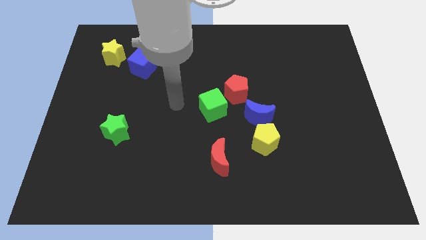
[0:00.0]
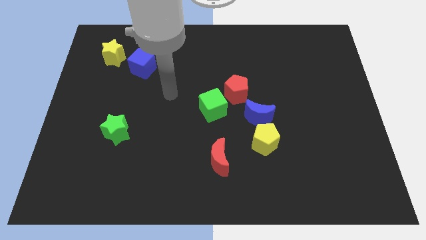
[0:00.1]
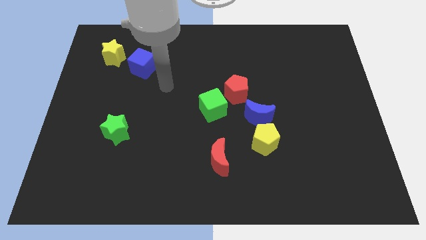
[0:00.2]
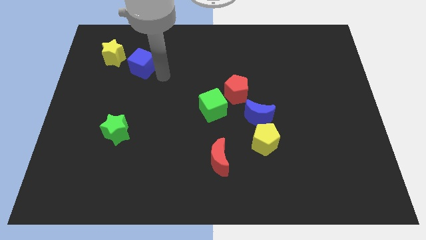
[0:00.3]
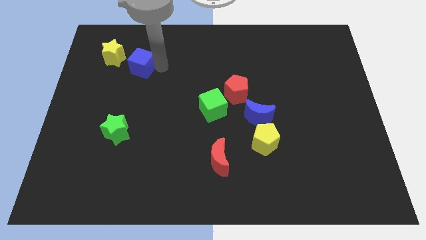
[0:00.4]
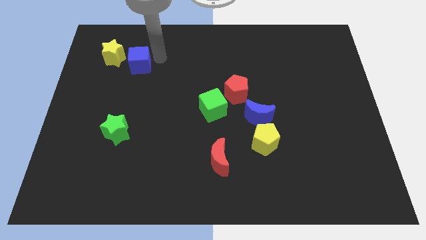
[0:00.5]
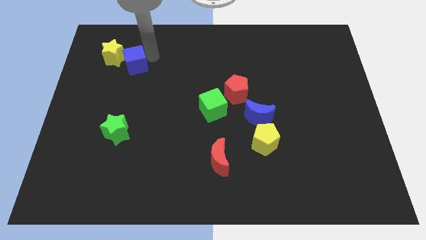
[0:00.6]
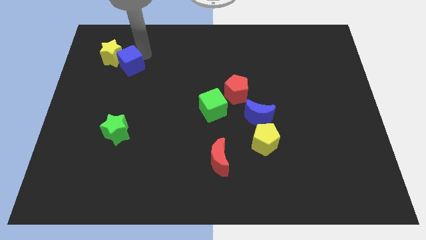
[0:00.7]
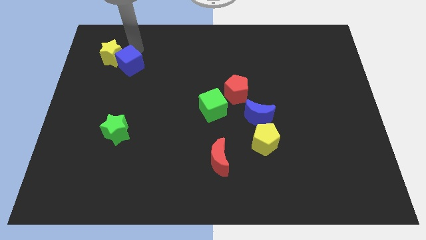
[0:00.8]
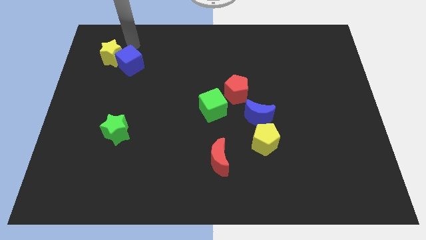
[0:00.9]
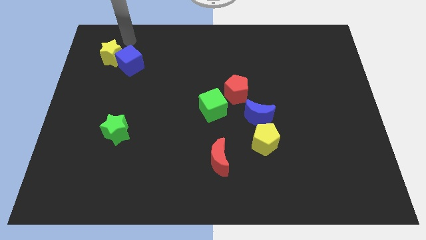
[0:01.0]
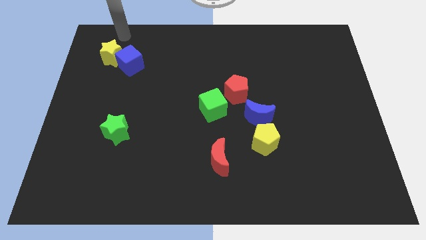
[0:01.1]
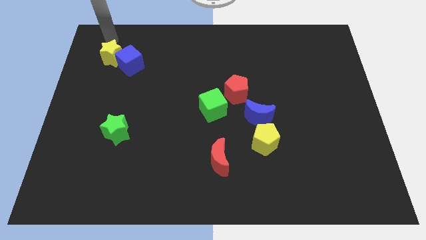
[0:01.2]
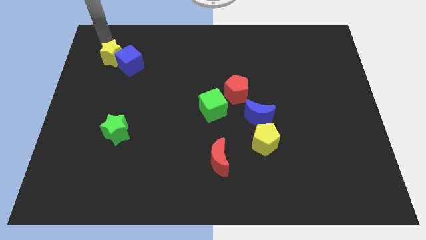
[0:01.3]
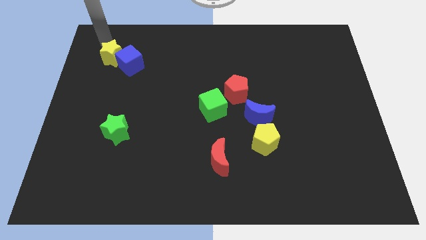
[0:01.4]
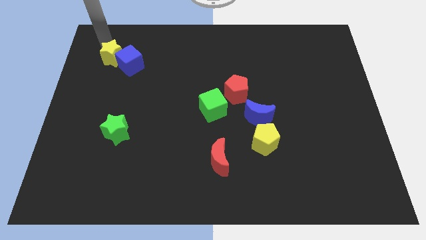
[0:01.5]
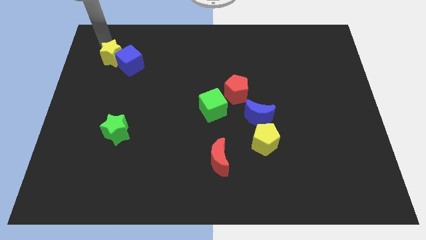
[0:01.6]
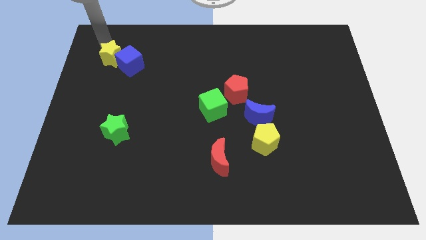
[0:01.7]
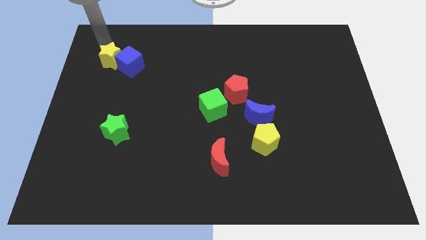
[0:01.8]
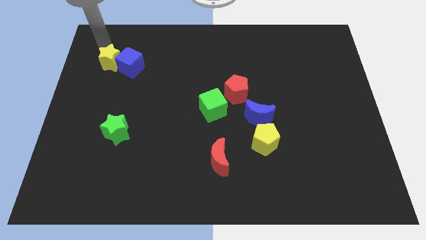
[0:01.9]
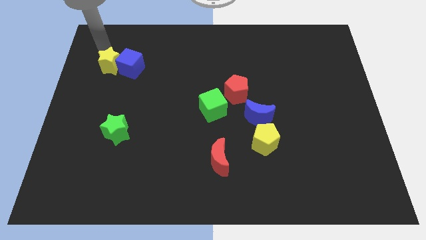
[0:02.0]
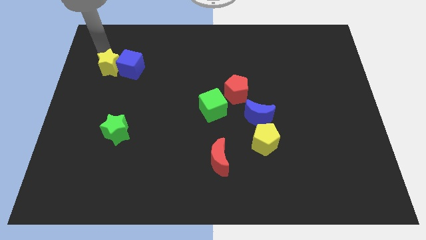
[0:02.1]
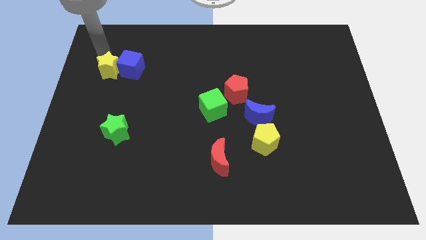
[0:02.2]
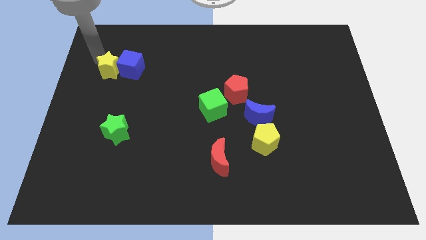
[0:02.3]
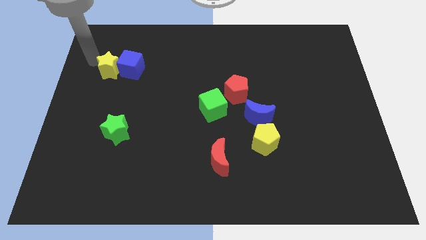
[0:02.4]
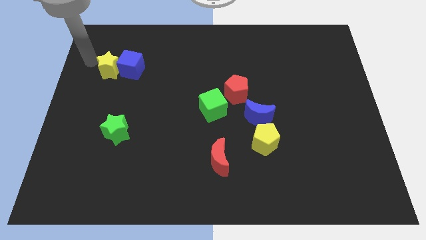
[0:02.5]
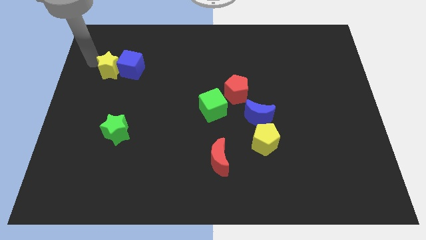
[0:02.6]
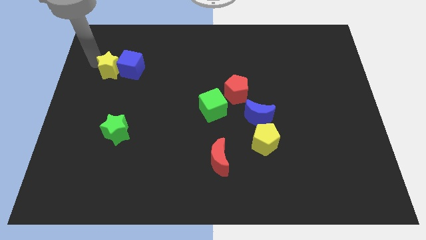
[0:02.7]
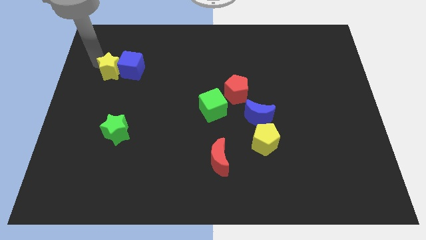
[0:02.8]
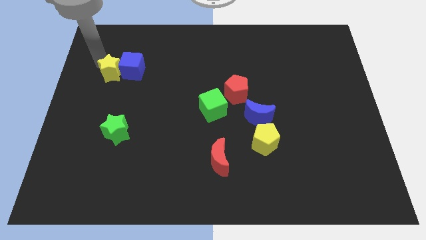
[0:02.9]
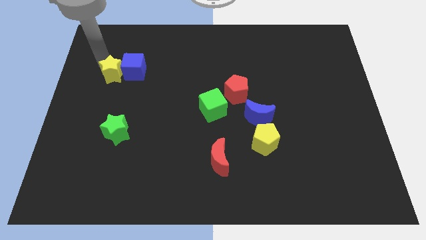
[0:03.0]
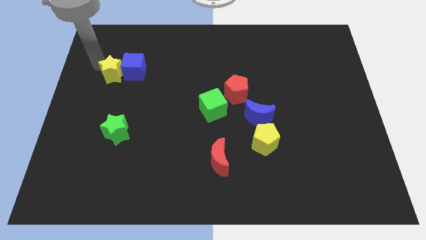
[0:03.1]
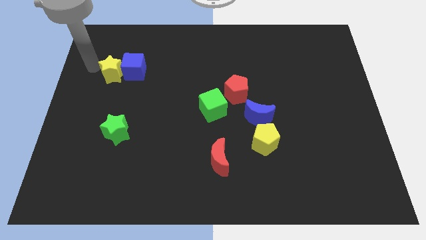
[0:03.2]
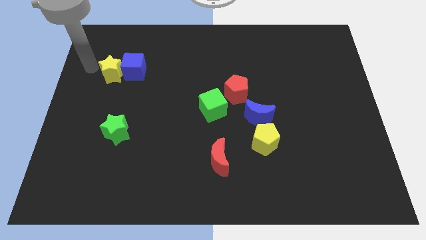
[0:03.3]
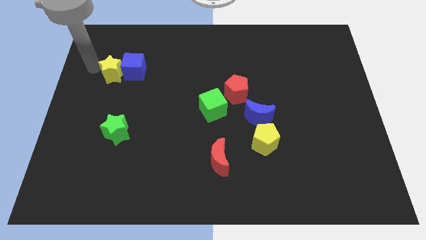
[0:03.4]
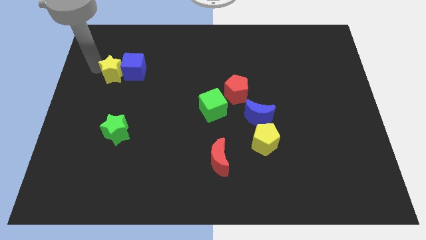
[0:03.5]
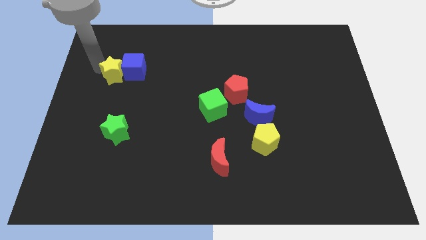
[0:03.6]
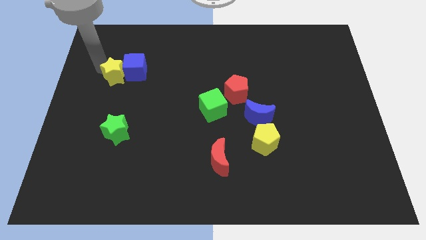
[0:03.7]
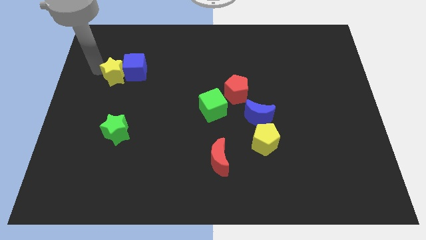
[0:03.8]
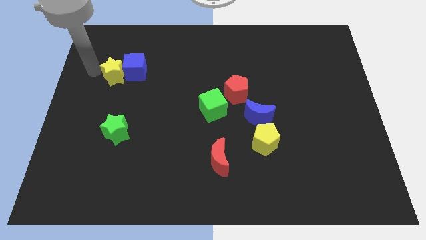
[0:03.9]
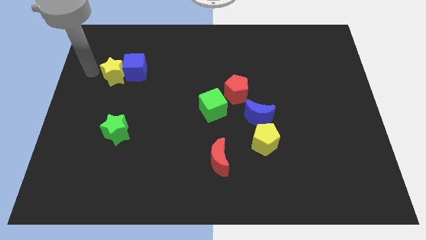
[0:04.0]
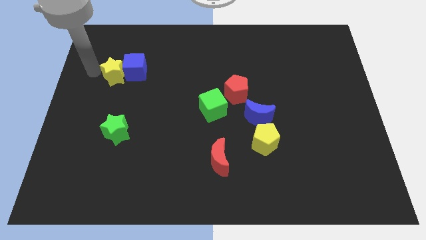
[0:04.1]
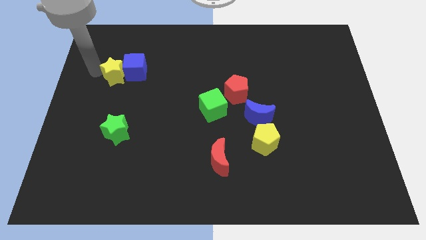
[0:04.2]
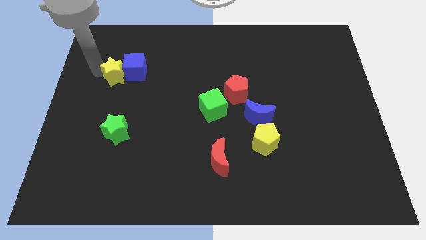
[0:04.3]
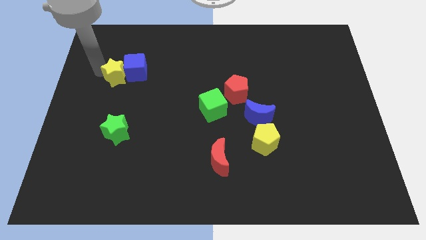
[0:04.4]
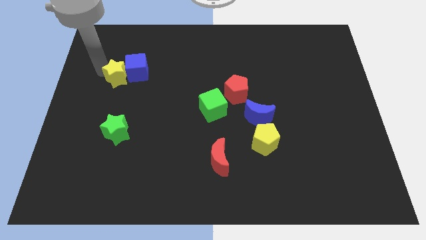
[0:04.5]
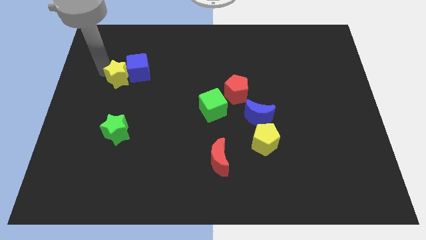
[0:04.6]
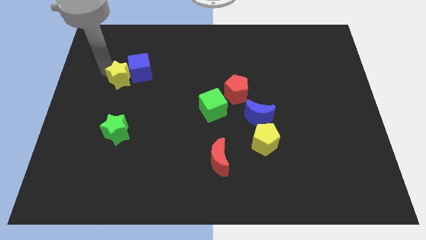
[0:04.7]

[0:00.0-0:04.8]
move the yellow star somewhat down and right diagonally

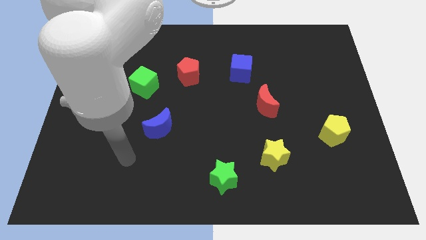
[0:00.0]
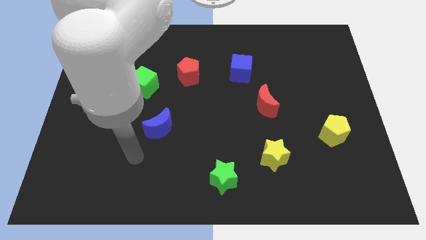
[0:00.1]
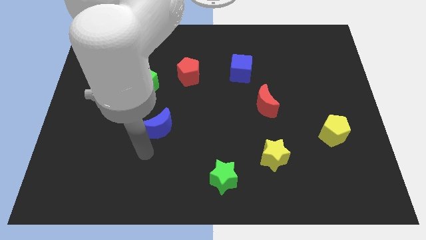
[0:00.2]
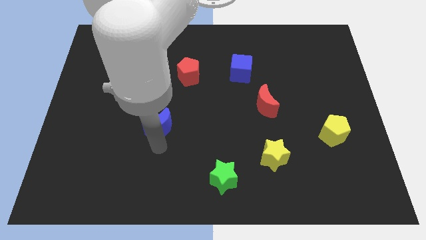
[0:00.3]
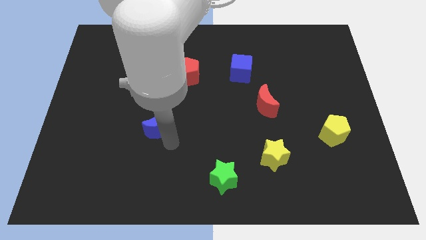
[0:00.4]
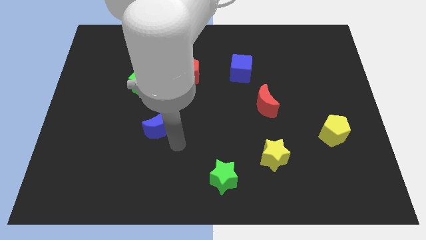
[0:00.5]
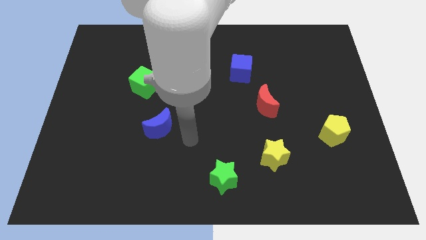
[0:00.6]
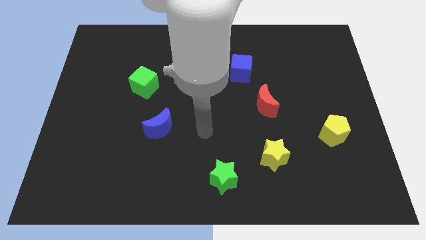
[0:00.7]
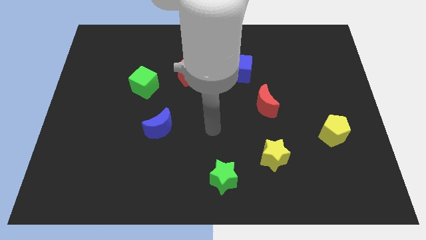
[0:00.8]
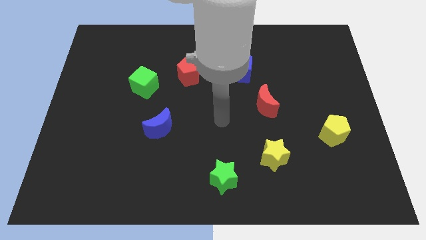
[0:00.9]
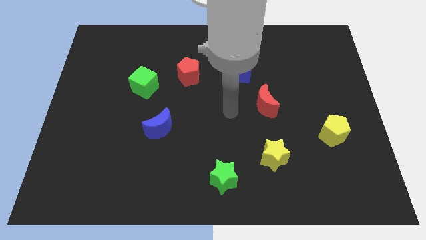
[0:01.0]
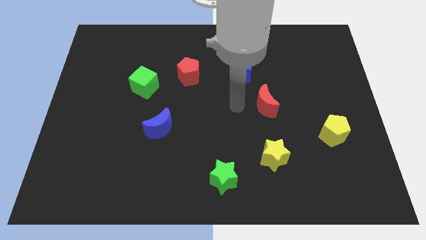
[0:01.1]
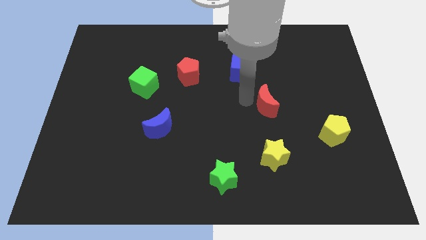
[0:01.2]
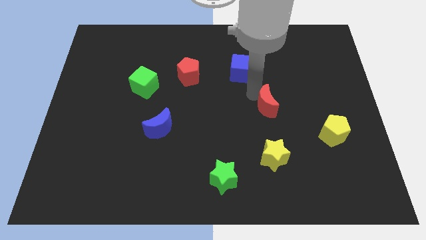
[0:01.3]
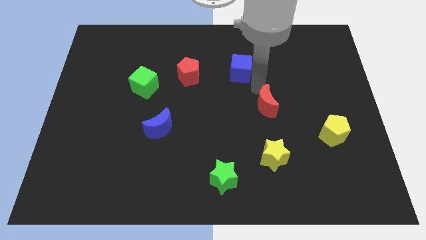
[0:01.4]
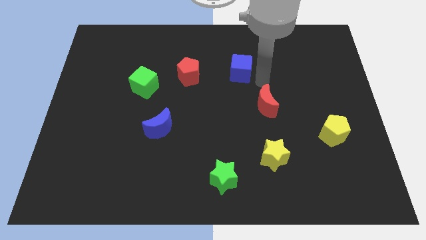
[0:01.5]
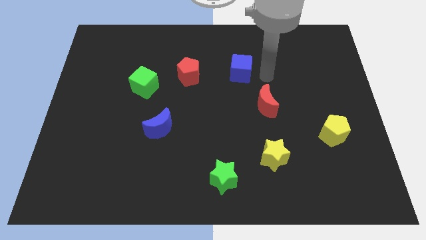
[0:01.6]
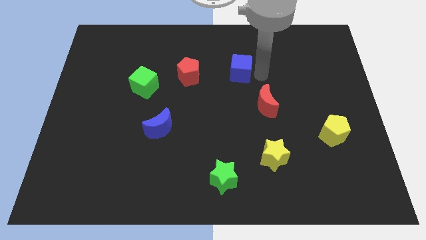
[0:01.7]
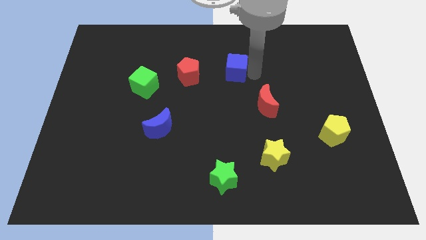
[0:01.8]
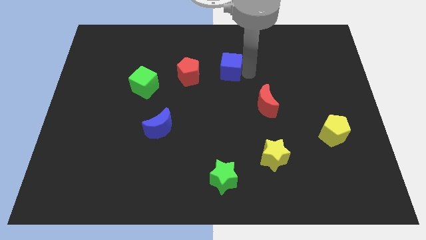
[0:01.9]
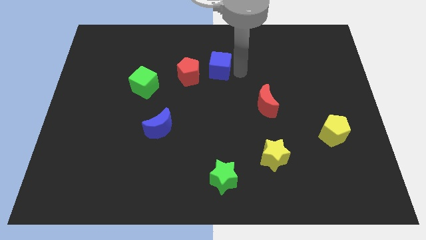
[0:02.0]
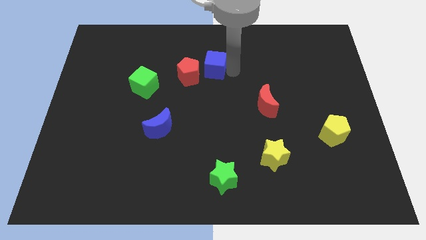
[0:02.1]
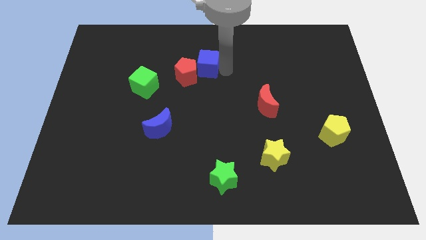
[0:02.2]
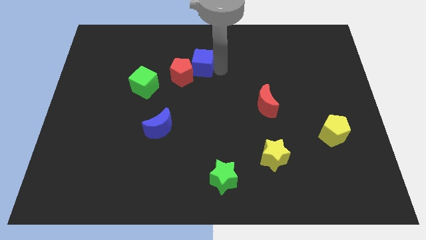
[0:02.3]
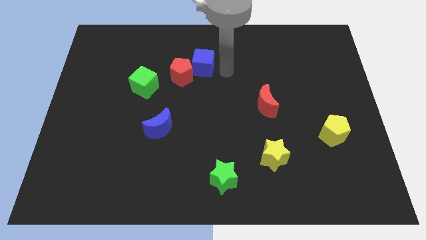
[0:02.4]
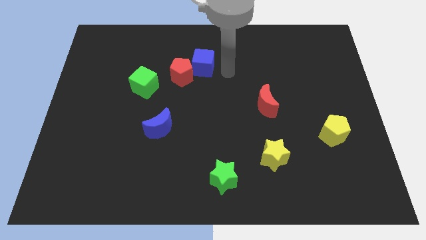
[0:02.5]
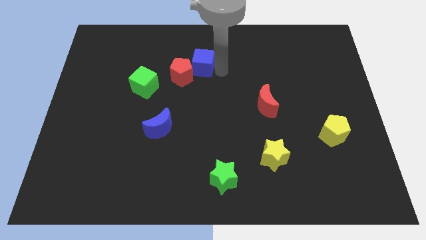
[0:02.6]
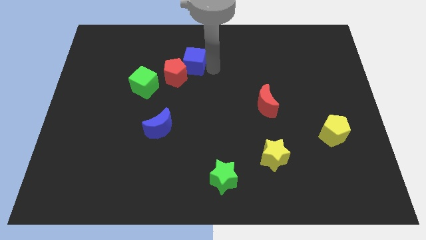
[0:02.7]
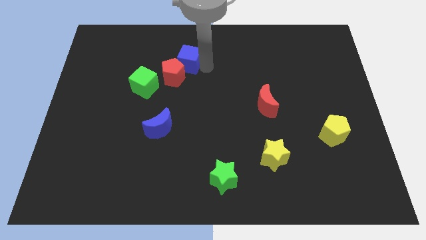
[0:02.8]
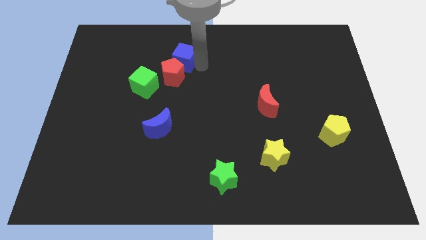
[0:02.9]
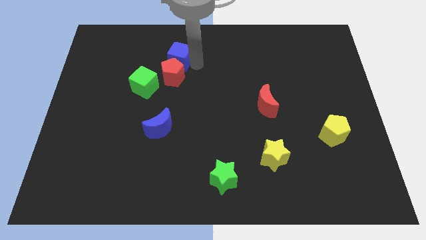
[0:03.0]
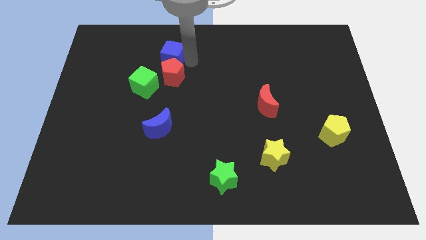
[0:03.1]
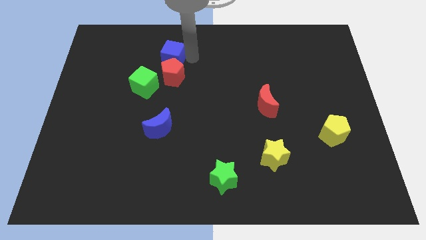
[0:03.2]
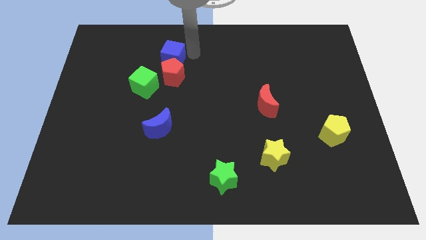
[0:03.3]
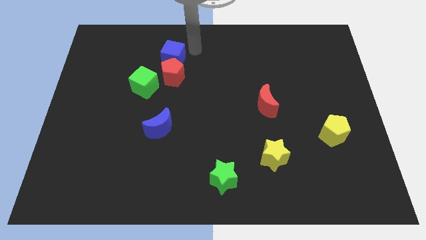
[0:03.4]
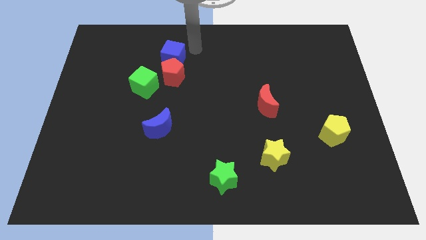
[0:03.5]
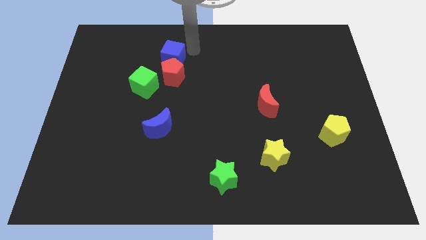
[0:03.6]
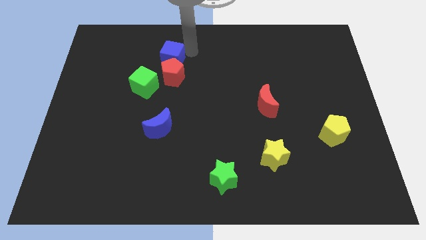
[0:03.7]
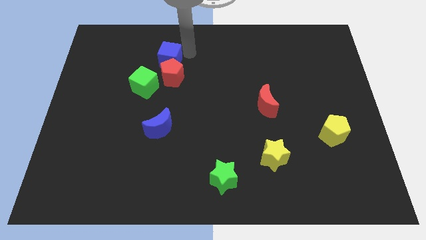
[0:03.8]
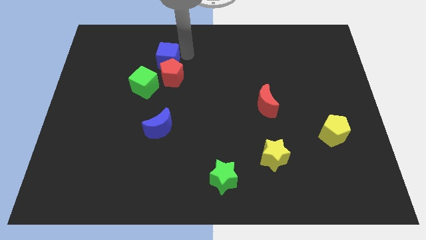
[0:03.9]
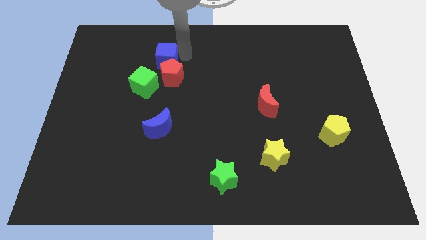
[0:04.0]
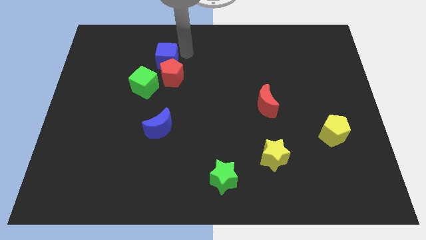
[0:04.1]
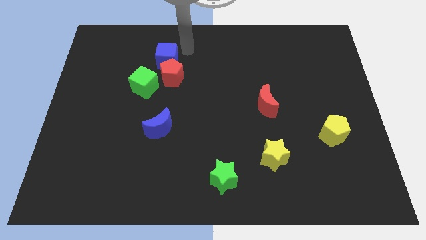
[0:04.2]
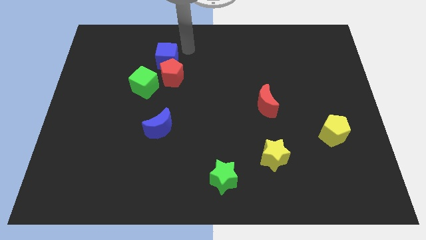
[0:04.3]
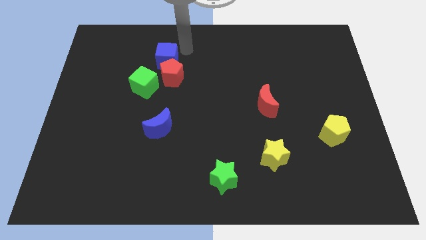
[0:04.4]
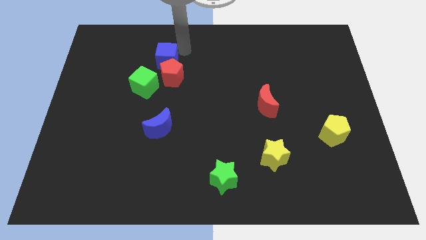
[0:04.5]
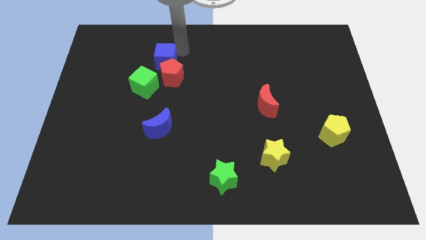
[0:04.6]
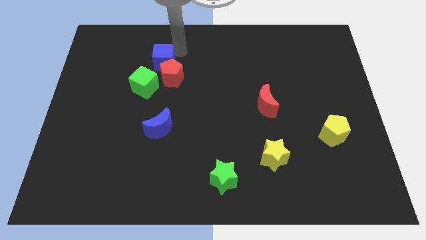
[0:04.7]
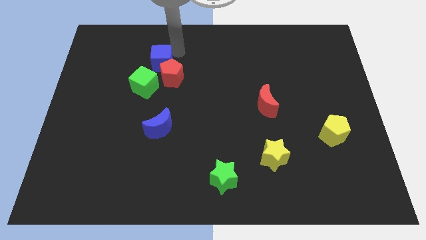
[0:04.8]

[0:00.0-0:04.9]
push the blue cube to the left
